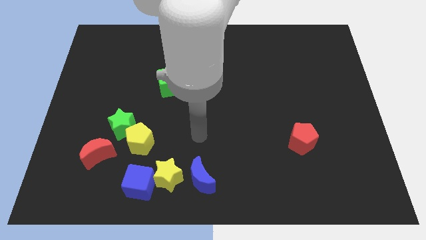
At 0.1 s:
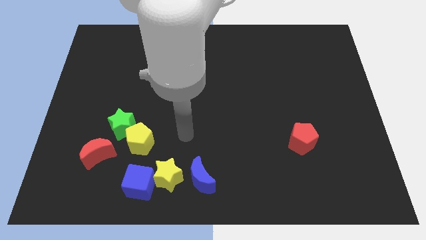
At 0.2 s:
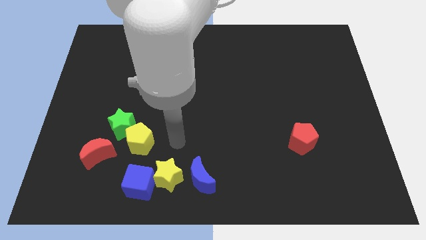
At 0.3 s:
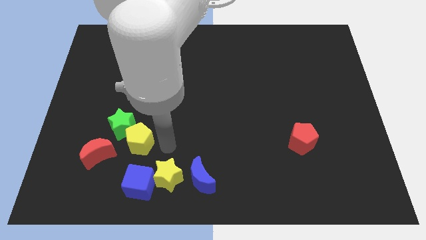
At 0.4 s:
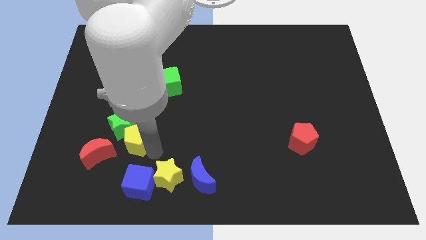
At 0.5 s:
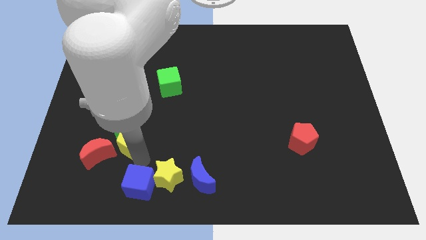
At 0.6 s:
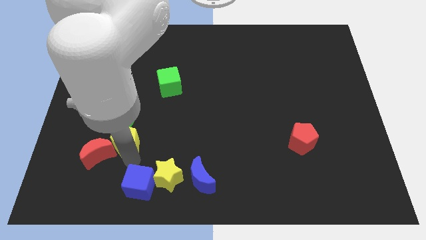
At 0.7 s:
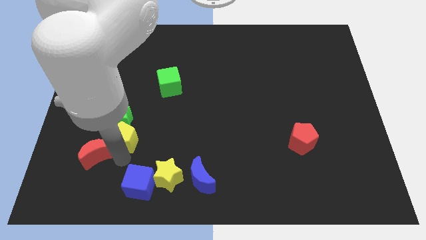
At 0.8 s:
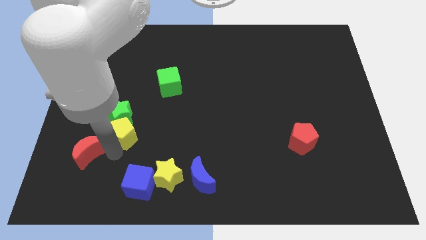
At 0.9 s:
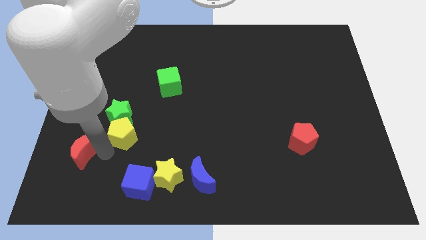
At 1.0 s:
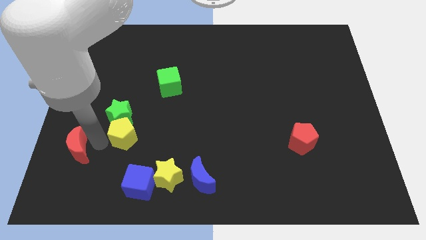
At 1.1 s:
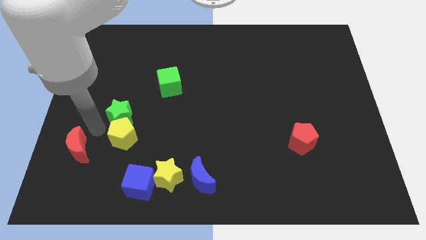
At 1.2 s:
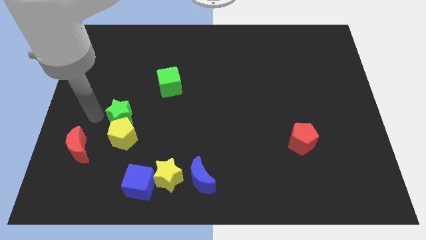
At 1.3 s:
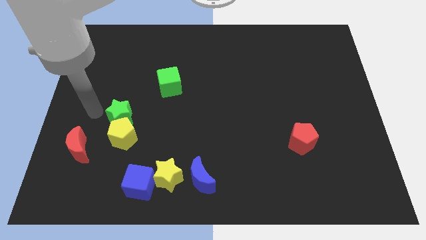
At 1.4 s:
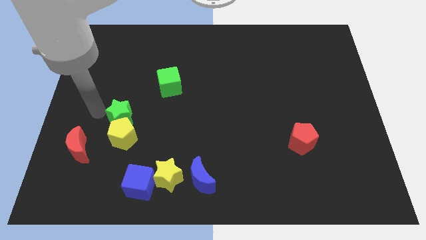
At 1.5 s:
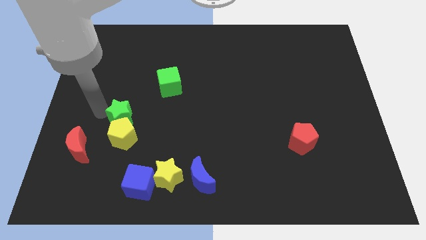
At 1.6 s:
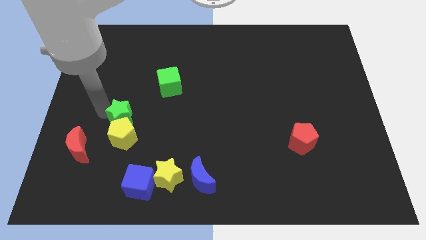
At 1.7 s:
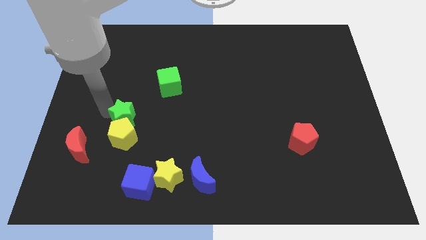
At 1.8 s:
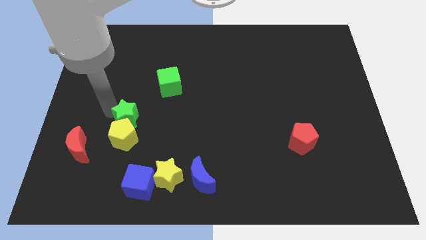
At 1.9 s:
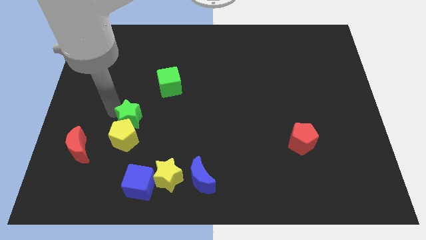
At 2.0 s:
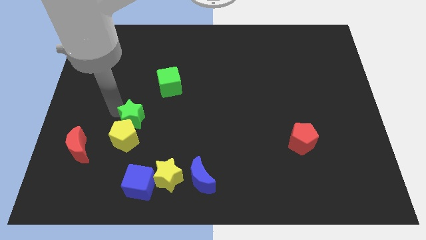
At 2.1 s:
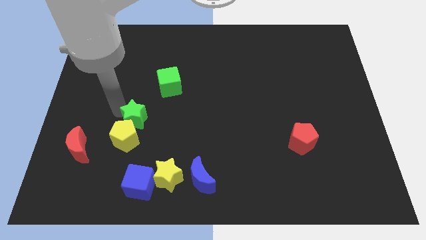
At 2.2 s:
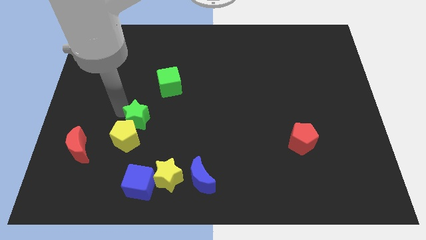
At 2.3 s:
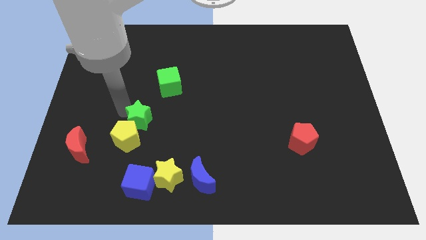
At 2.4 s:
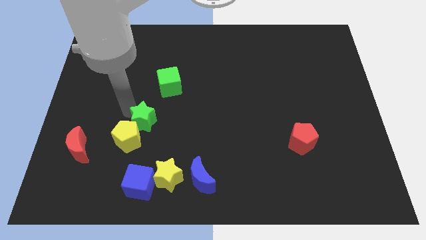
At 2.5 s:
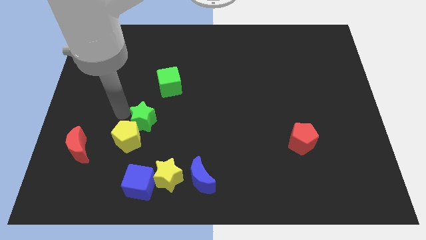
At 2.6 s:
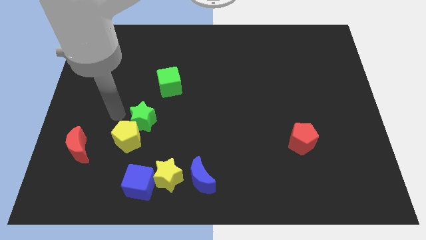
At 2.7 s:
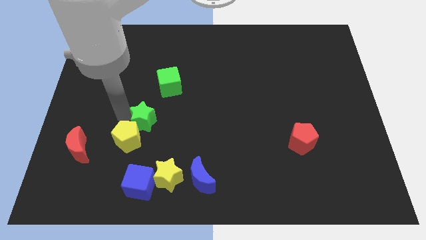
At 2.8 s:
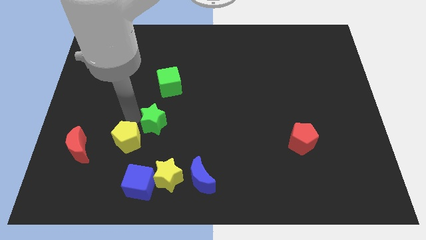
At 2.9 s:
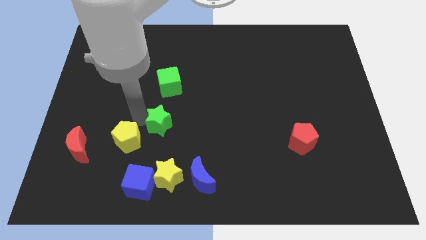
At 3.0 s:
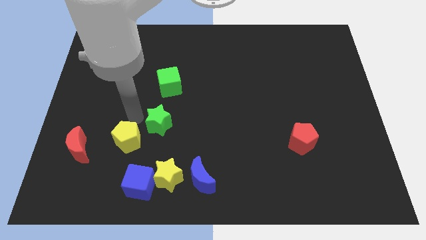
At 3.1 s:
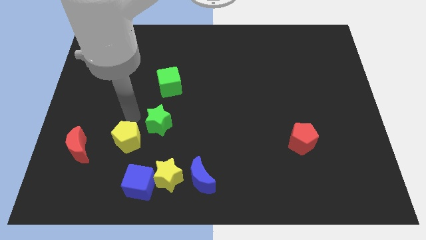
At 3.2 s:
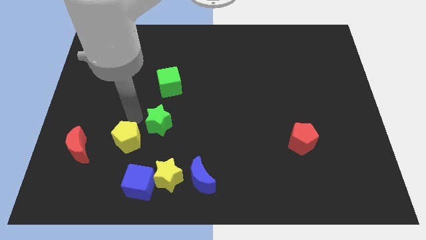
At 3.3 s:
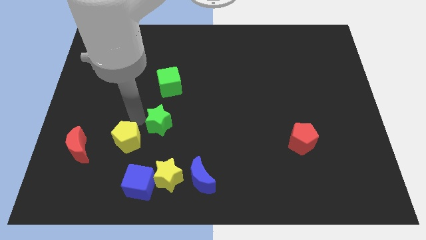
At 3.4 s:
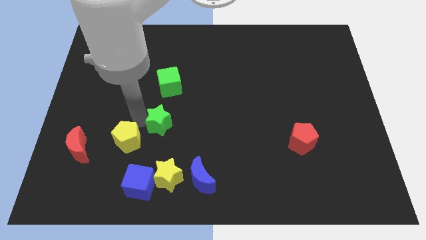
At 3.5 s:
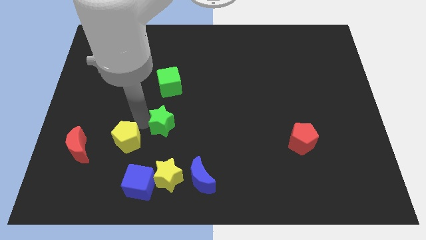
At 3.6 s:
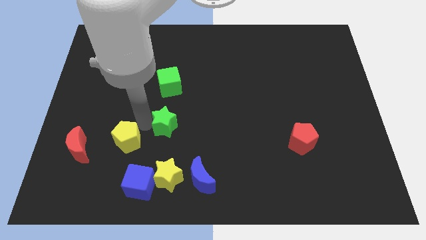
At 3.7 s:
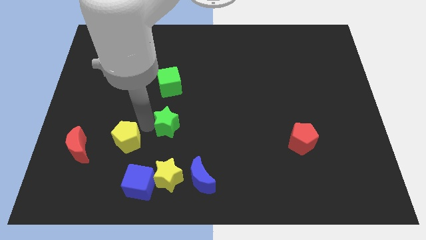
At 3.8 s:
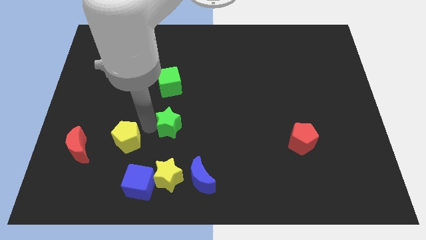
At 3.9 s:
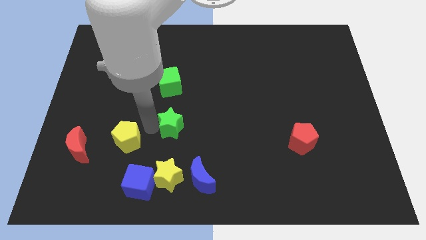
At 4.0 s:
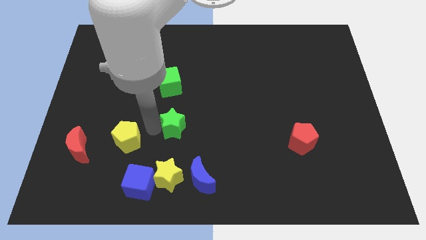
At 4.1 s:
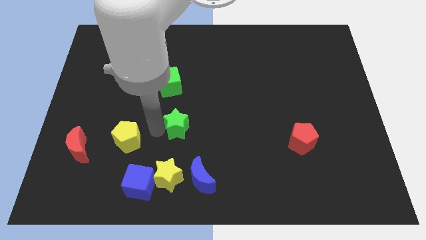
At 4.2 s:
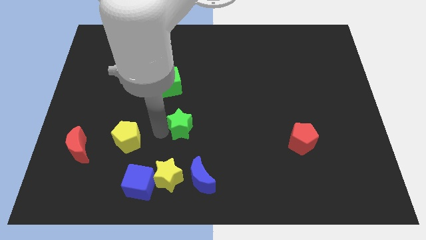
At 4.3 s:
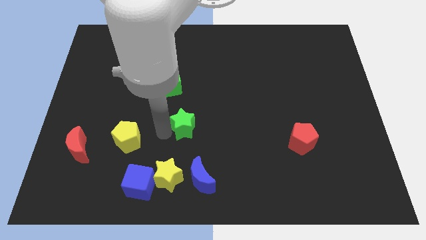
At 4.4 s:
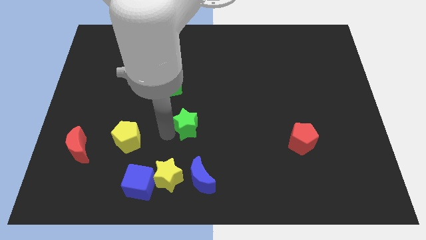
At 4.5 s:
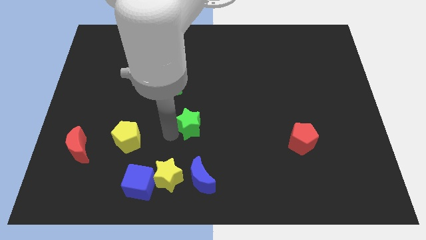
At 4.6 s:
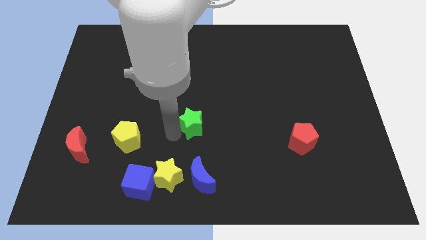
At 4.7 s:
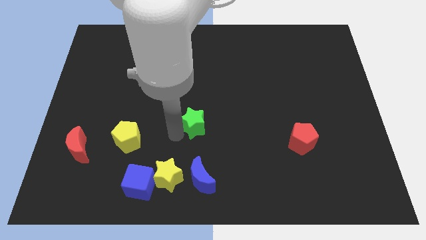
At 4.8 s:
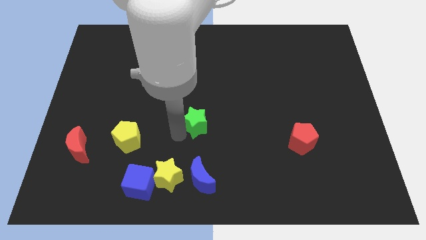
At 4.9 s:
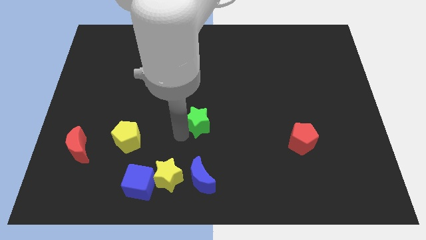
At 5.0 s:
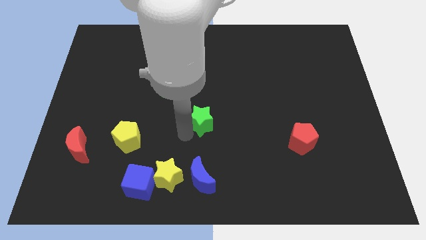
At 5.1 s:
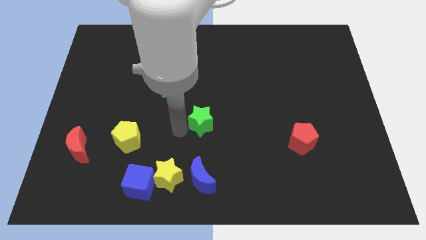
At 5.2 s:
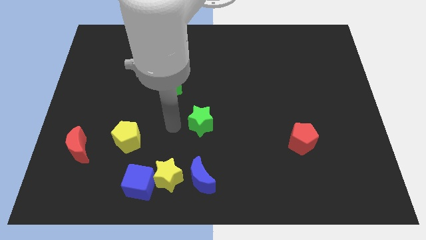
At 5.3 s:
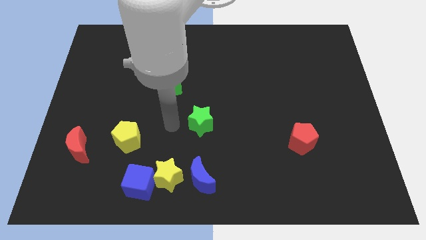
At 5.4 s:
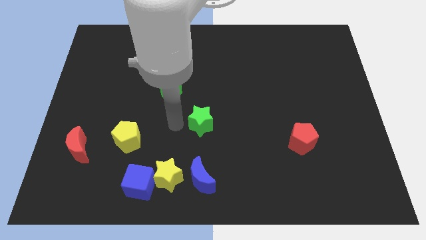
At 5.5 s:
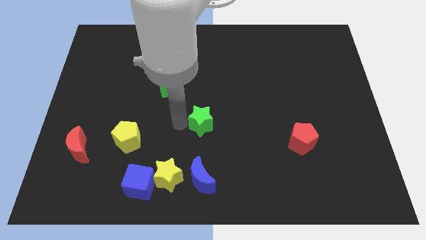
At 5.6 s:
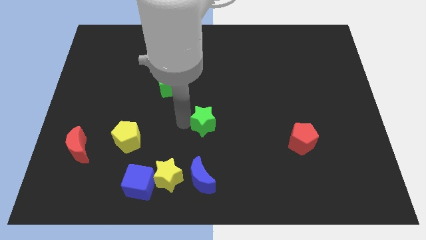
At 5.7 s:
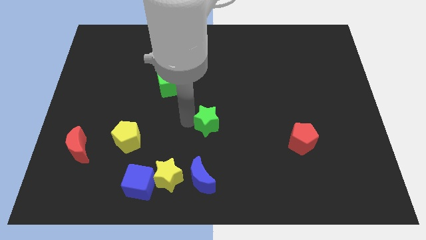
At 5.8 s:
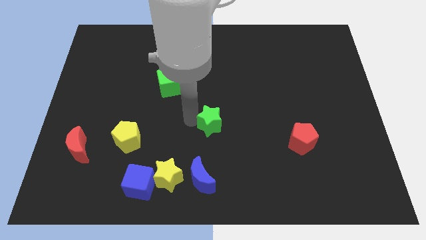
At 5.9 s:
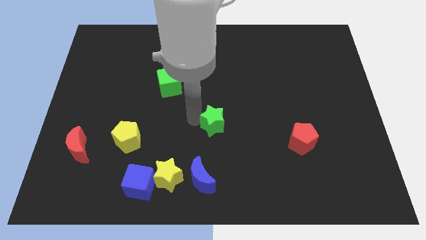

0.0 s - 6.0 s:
move the green star to the right

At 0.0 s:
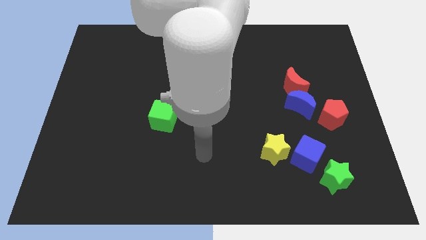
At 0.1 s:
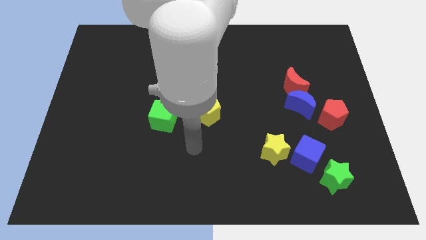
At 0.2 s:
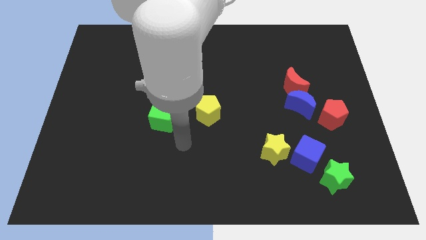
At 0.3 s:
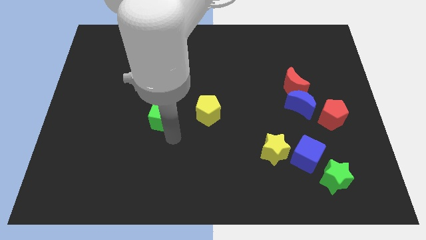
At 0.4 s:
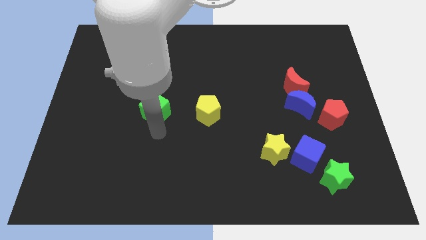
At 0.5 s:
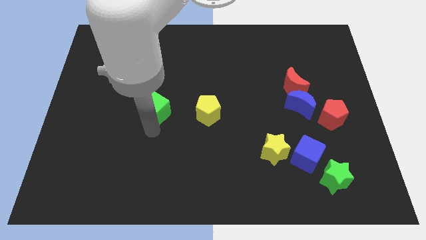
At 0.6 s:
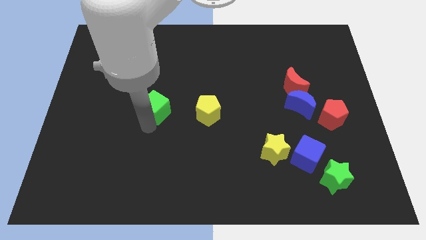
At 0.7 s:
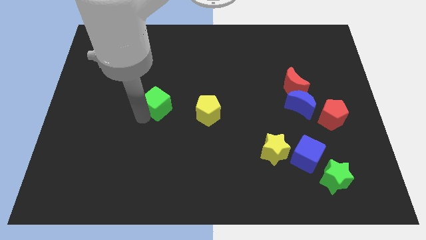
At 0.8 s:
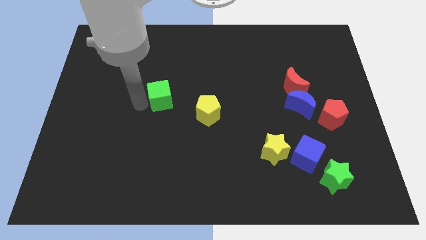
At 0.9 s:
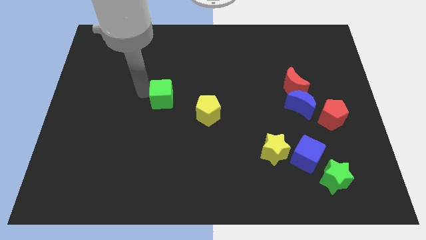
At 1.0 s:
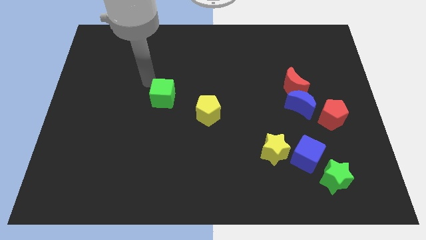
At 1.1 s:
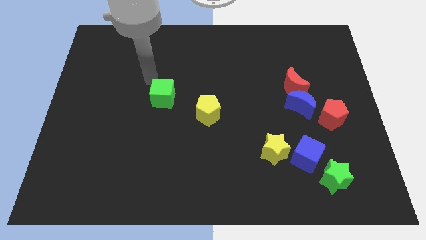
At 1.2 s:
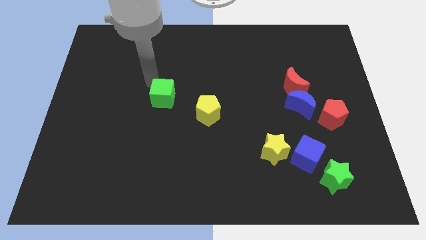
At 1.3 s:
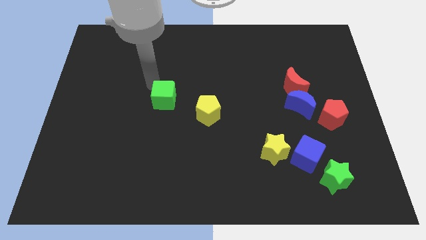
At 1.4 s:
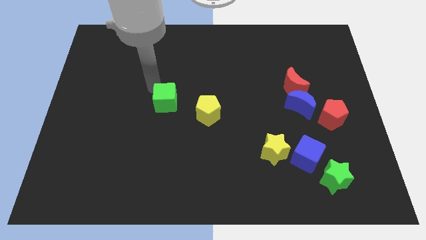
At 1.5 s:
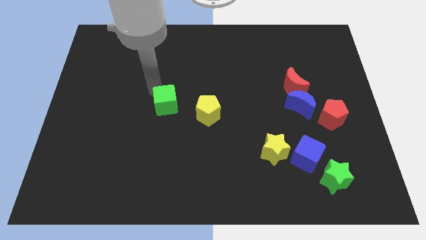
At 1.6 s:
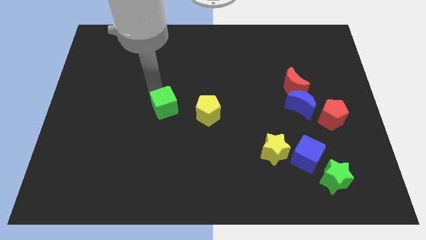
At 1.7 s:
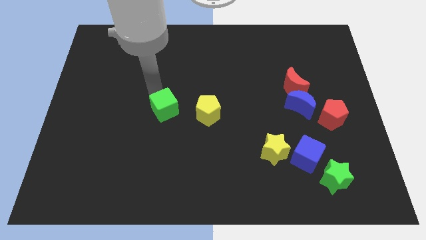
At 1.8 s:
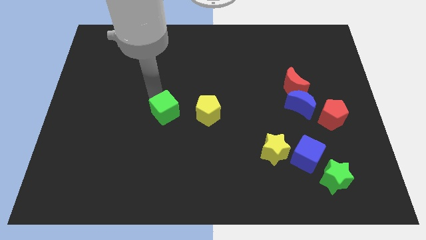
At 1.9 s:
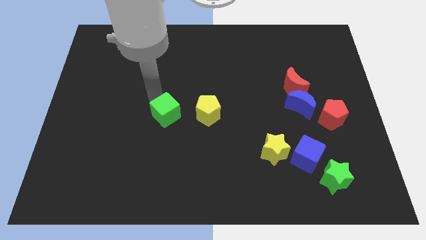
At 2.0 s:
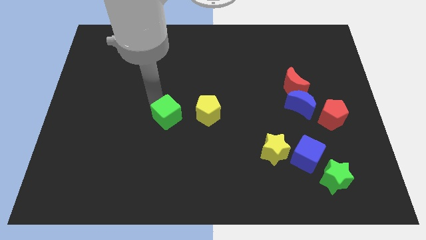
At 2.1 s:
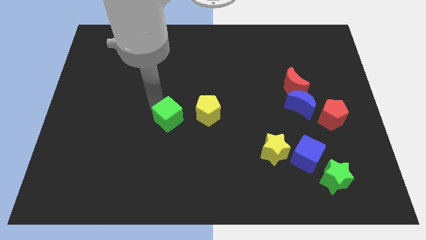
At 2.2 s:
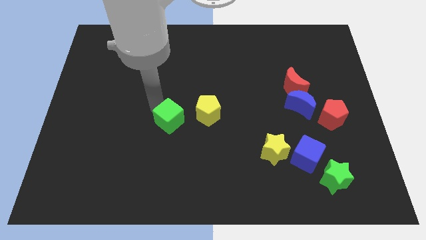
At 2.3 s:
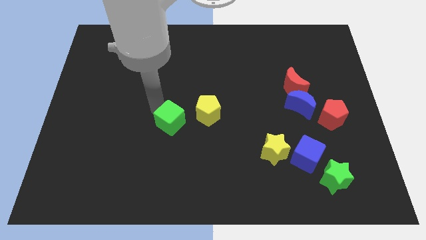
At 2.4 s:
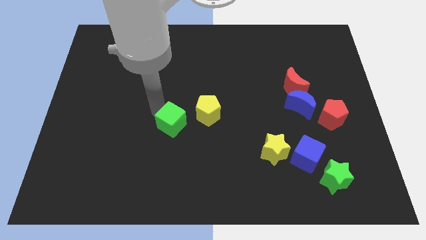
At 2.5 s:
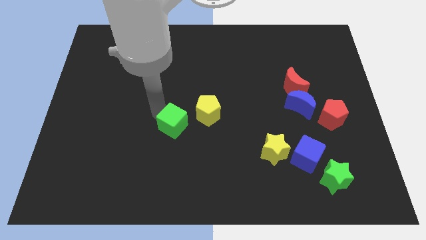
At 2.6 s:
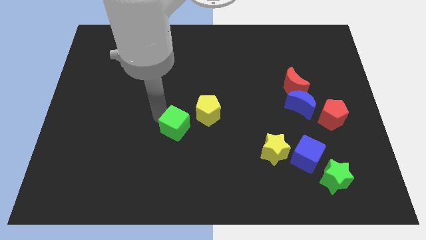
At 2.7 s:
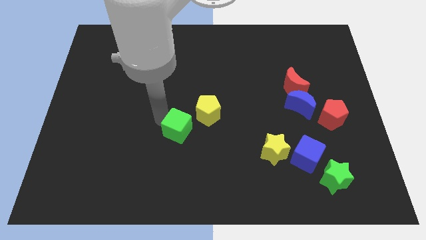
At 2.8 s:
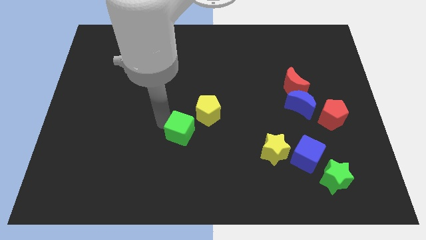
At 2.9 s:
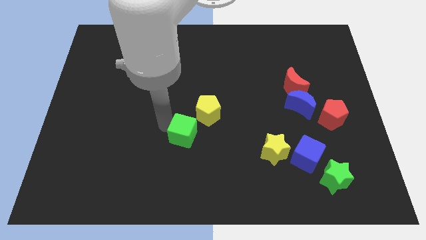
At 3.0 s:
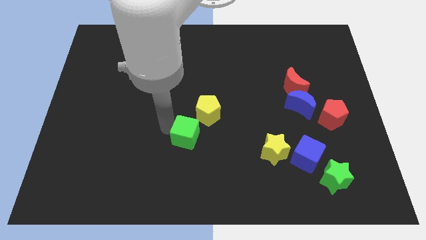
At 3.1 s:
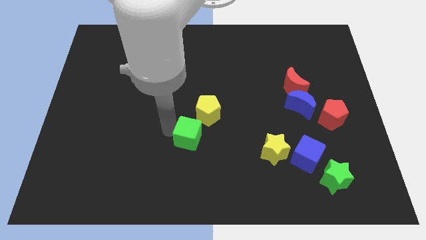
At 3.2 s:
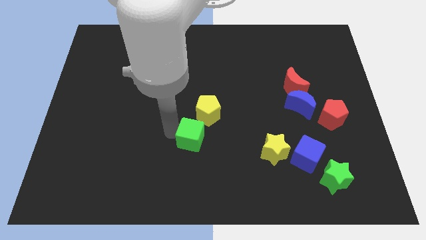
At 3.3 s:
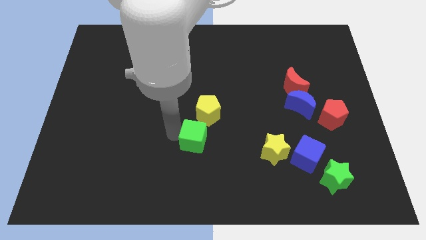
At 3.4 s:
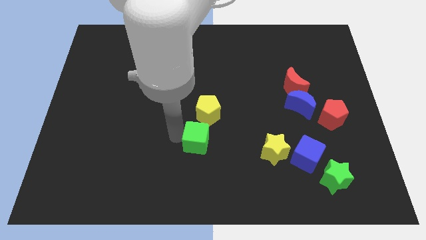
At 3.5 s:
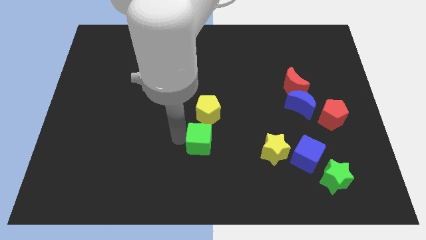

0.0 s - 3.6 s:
slide the green cube right a little bit
